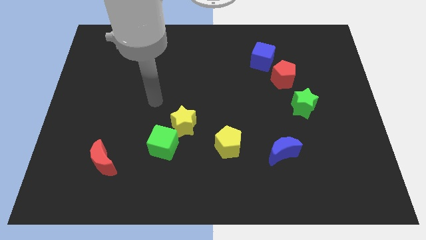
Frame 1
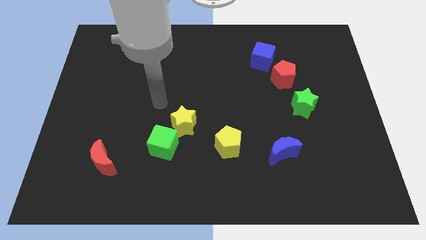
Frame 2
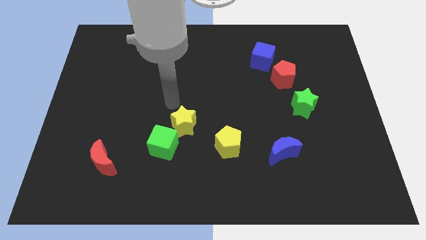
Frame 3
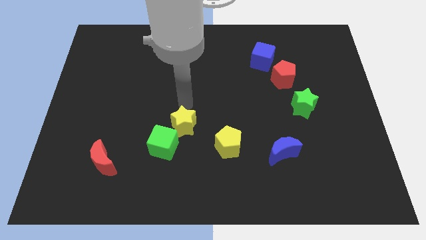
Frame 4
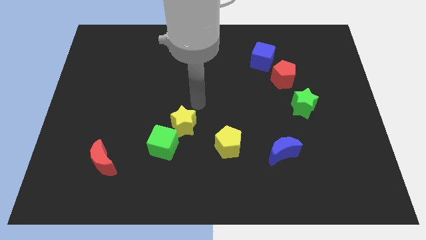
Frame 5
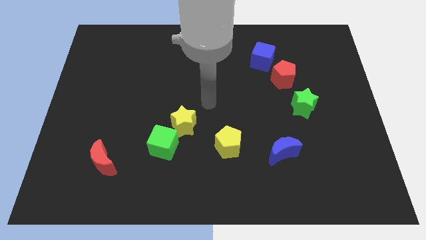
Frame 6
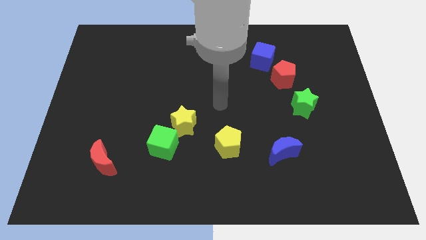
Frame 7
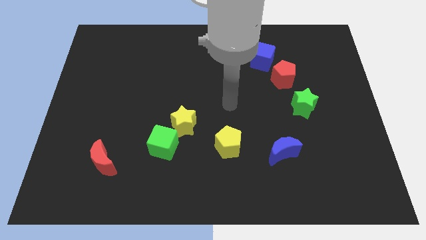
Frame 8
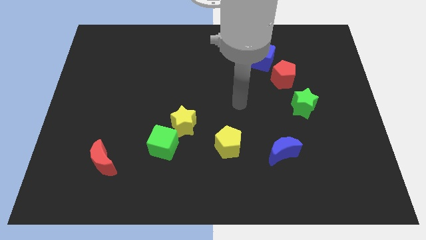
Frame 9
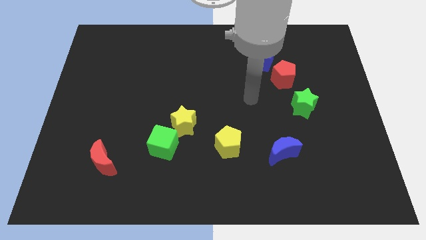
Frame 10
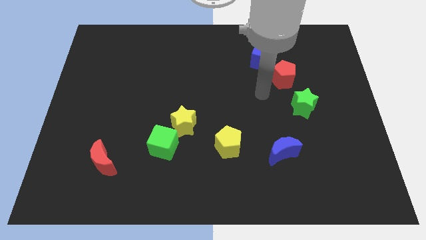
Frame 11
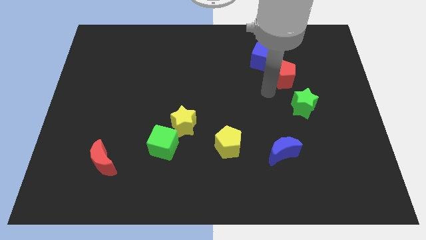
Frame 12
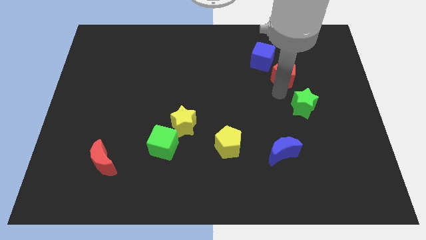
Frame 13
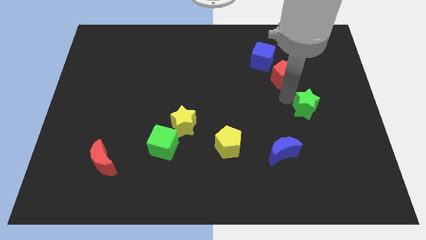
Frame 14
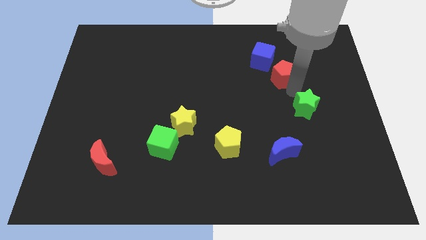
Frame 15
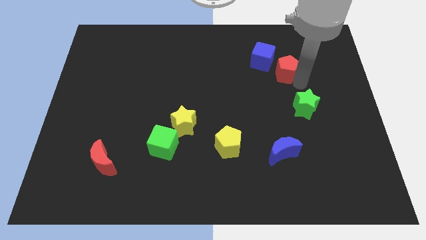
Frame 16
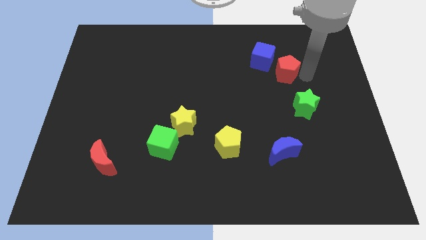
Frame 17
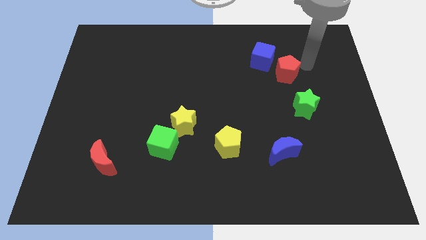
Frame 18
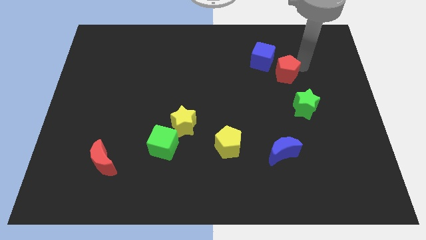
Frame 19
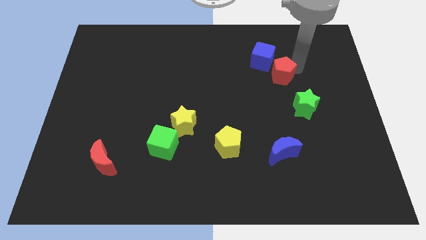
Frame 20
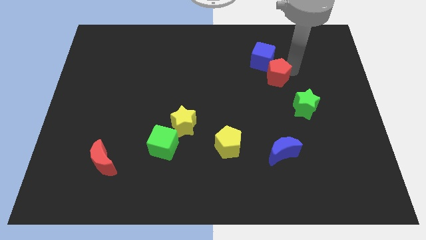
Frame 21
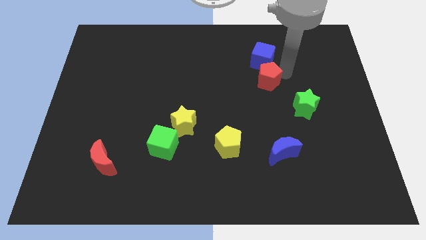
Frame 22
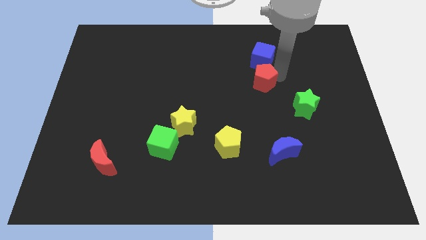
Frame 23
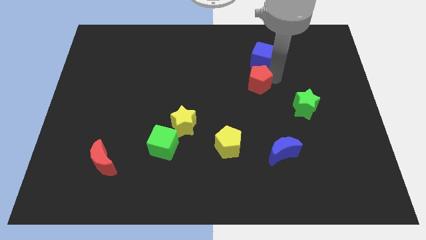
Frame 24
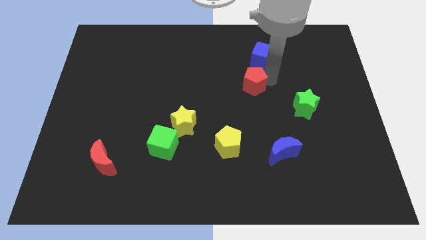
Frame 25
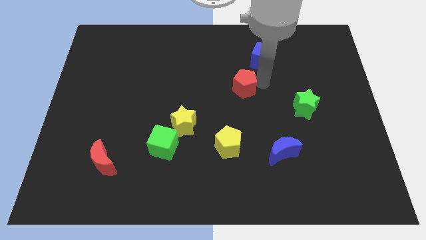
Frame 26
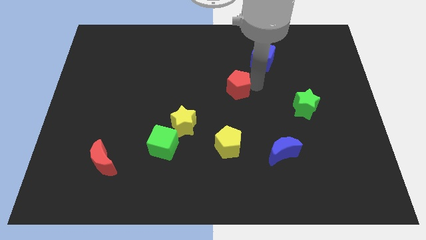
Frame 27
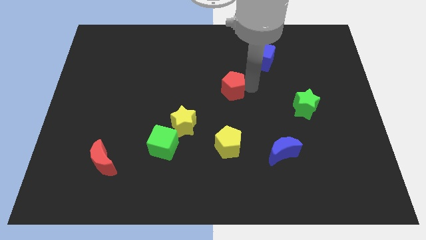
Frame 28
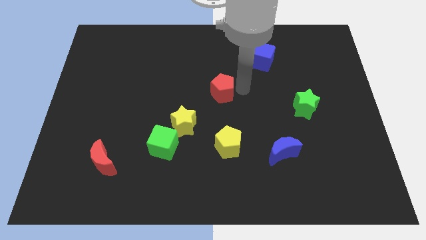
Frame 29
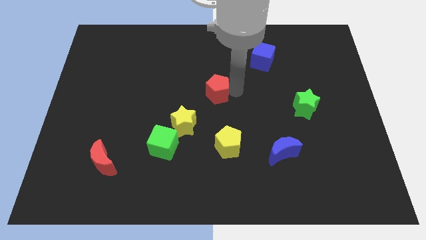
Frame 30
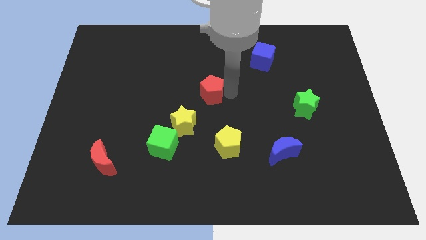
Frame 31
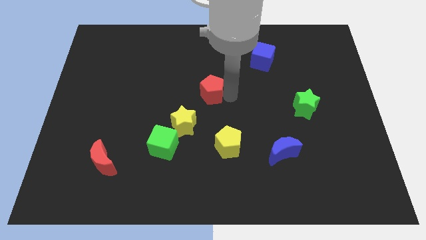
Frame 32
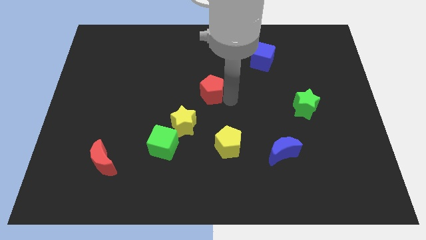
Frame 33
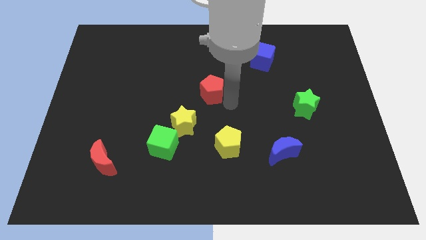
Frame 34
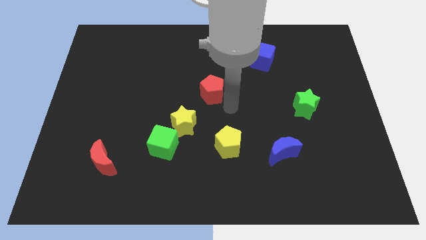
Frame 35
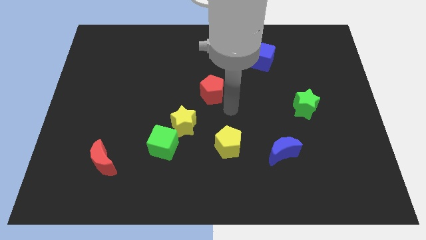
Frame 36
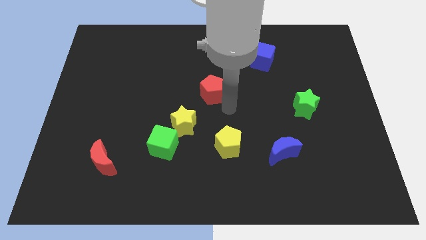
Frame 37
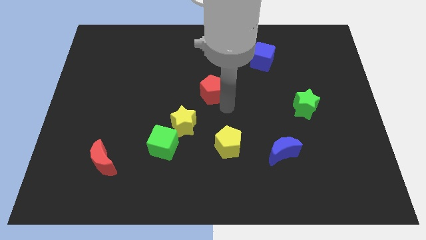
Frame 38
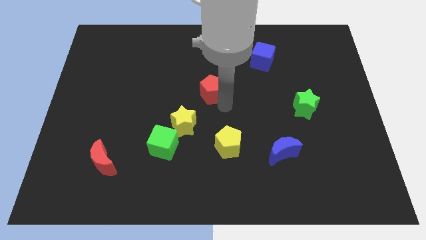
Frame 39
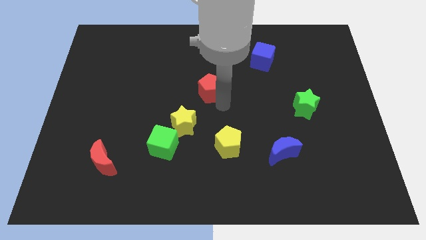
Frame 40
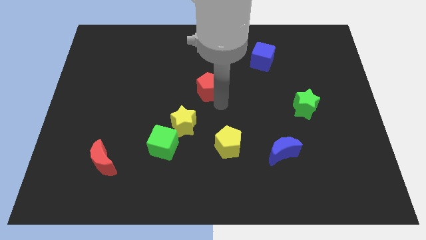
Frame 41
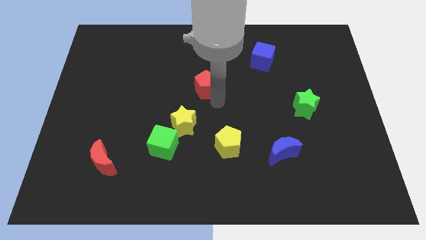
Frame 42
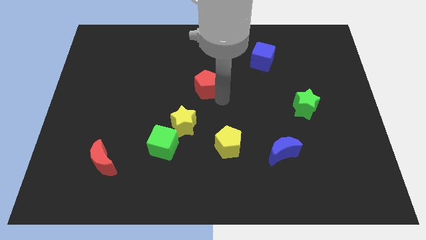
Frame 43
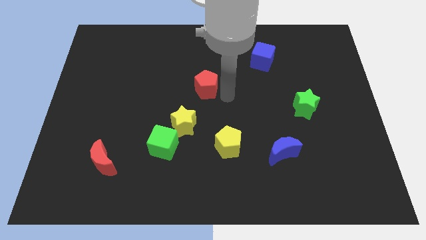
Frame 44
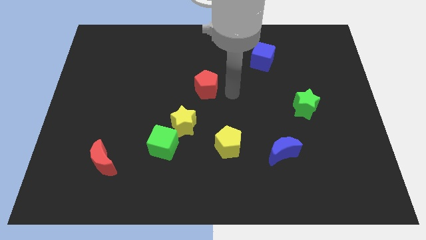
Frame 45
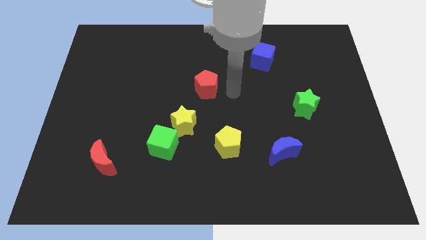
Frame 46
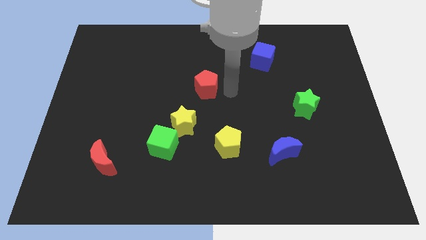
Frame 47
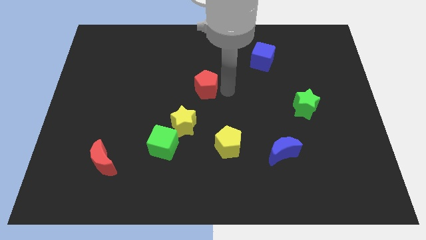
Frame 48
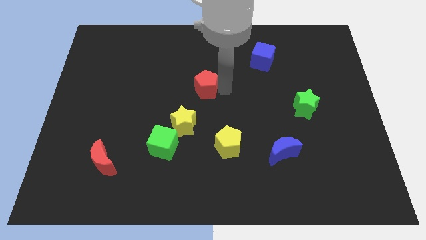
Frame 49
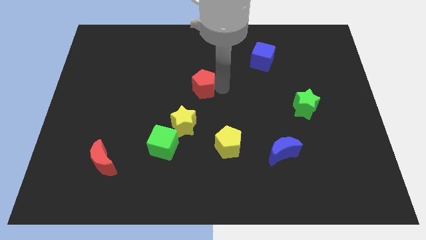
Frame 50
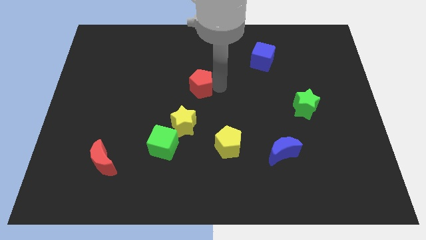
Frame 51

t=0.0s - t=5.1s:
push the red pentagon left

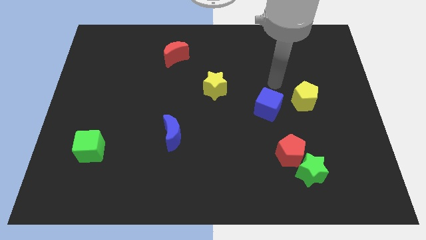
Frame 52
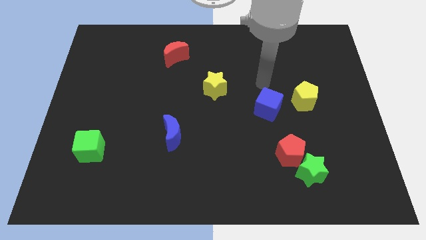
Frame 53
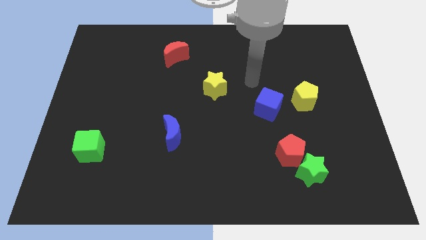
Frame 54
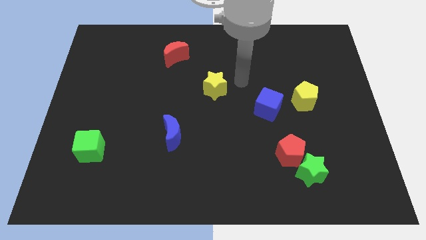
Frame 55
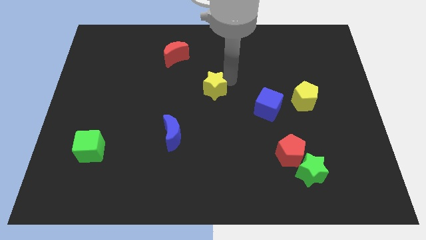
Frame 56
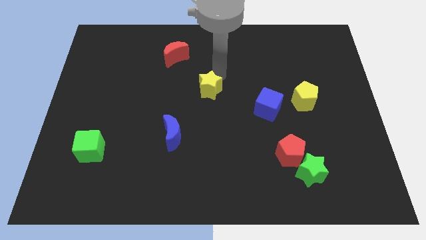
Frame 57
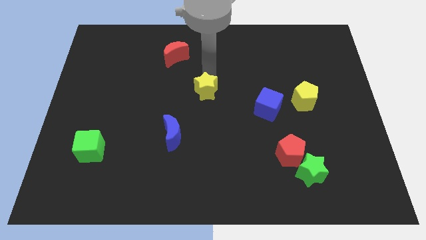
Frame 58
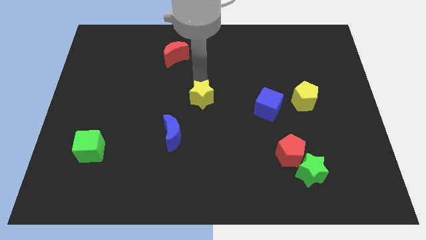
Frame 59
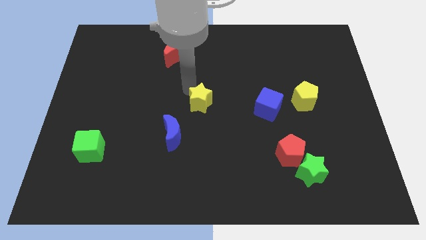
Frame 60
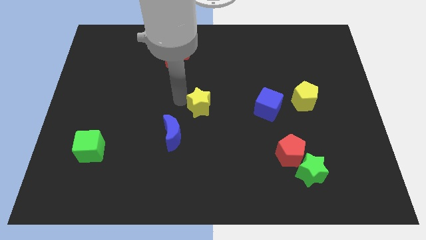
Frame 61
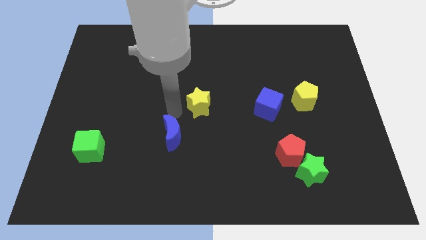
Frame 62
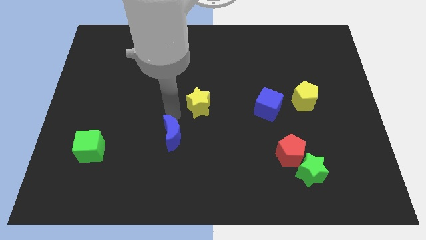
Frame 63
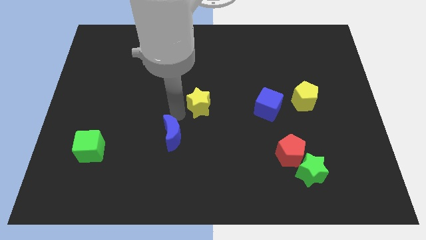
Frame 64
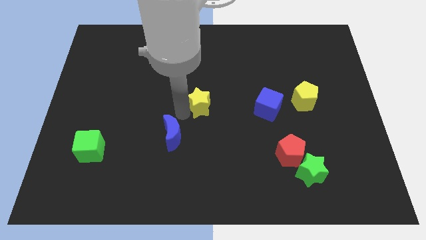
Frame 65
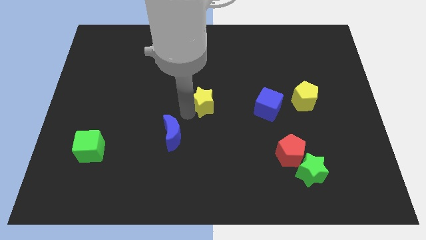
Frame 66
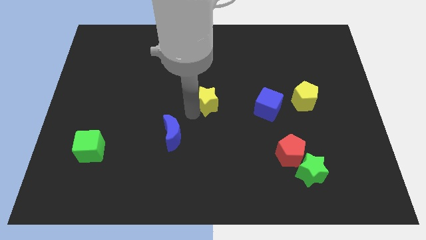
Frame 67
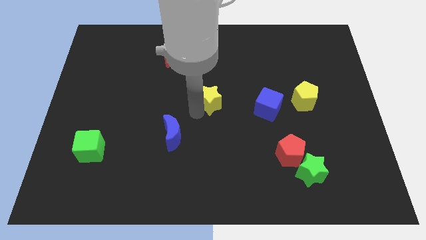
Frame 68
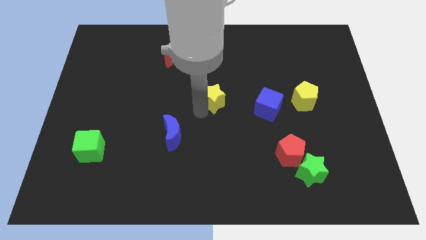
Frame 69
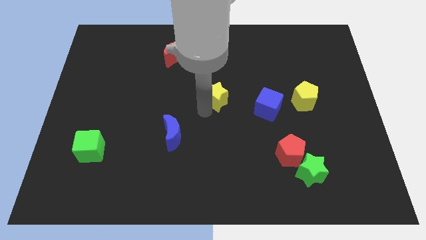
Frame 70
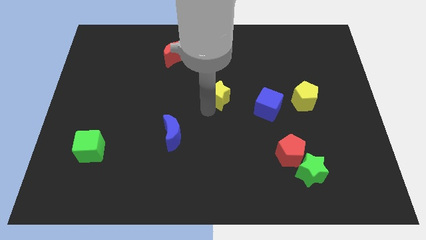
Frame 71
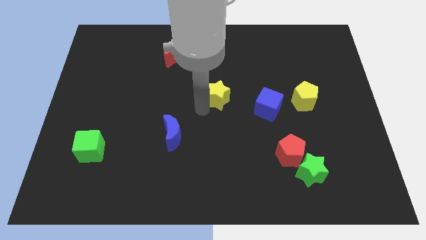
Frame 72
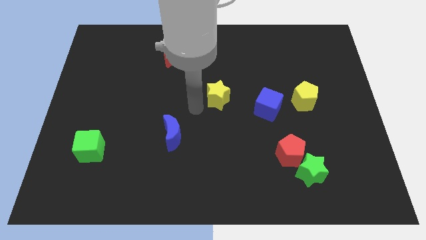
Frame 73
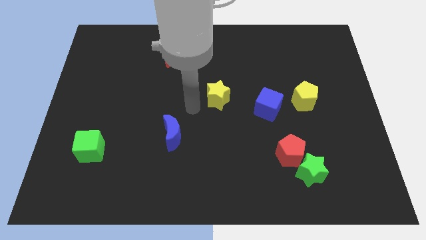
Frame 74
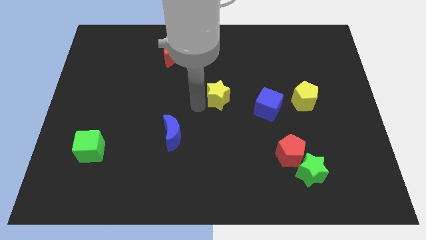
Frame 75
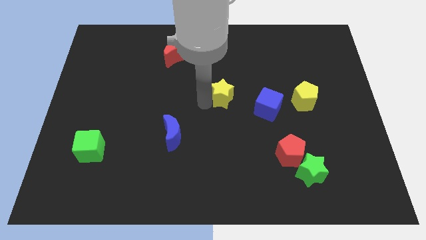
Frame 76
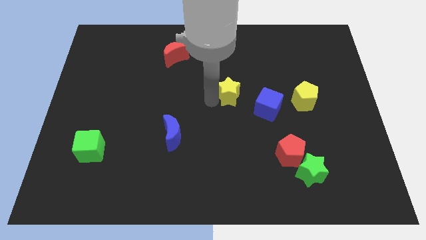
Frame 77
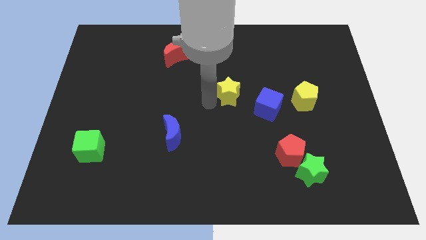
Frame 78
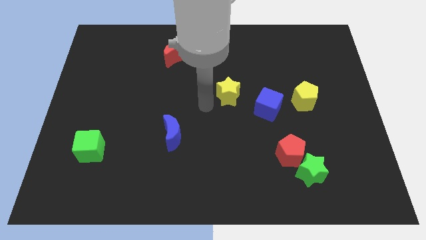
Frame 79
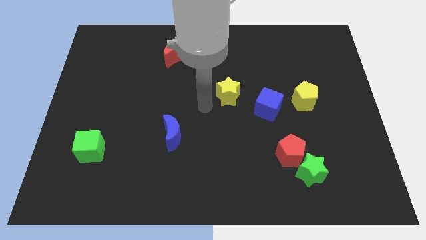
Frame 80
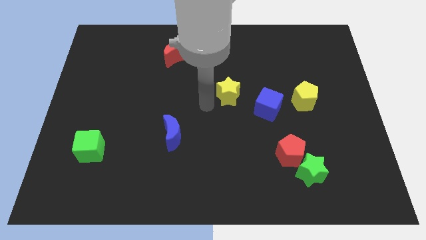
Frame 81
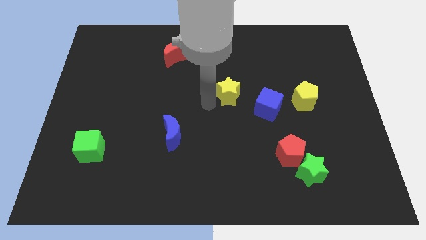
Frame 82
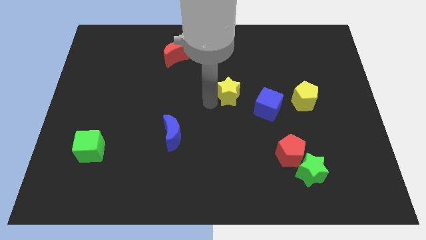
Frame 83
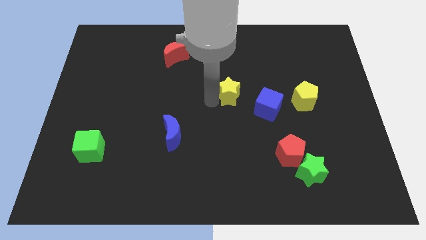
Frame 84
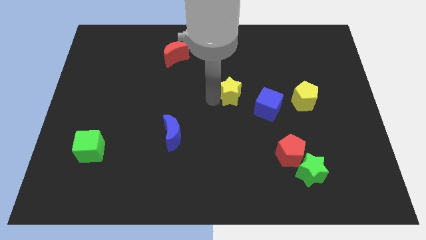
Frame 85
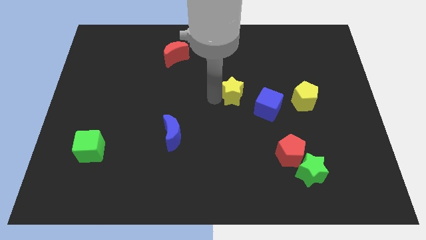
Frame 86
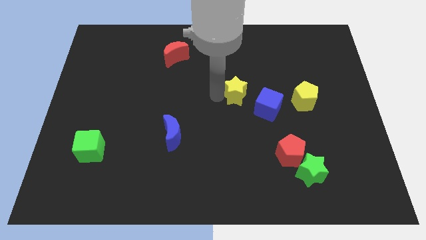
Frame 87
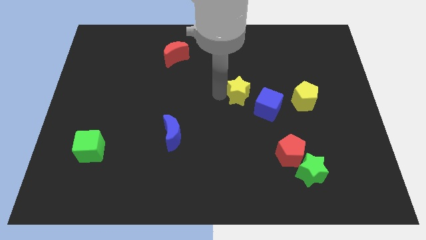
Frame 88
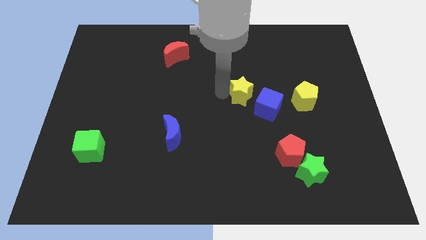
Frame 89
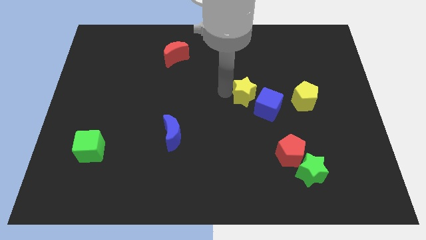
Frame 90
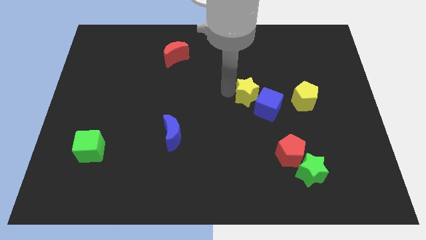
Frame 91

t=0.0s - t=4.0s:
slide the yellow star a little bit to the right
